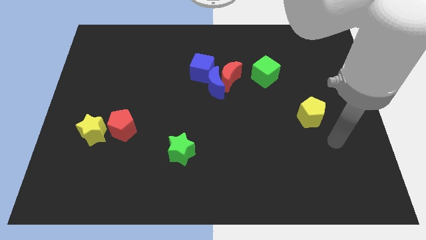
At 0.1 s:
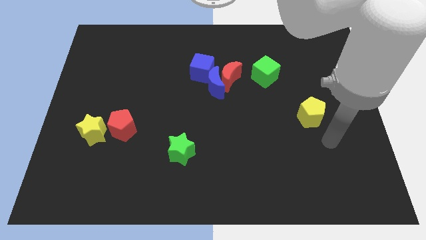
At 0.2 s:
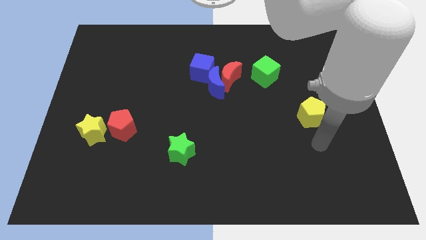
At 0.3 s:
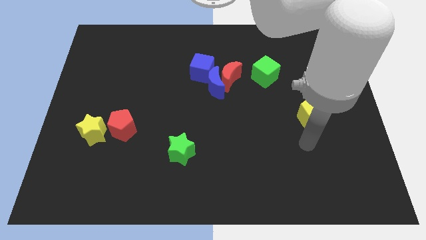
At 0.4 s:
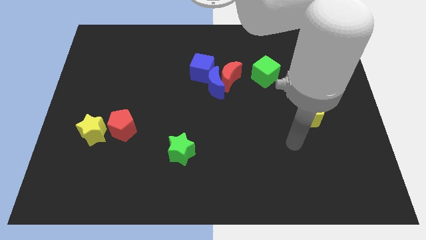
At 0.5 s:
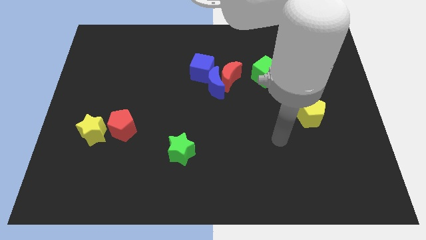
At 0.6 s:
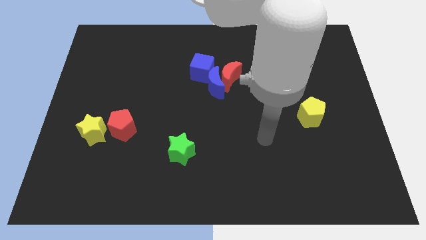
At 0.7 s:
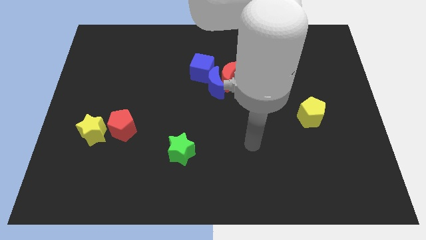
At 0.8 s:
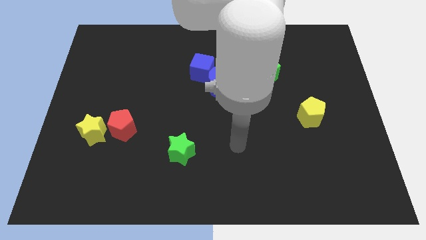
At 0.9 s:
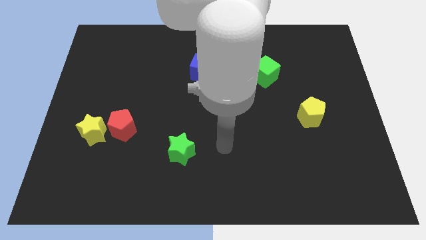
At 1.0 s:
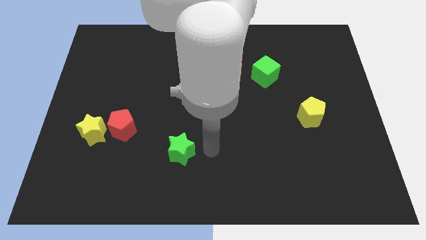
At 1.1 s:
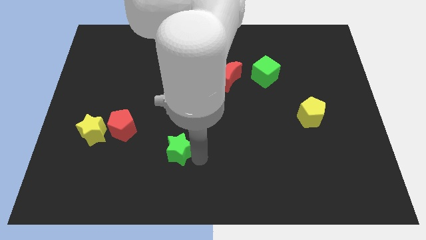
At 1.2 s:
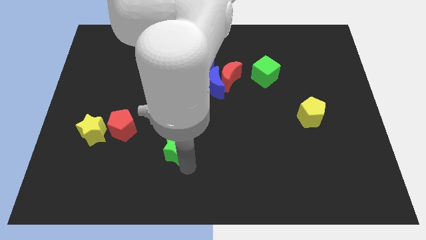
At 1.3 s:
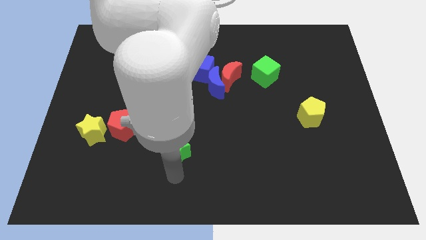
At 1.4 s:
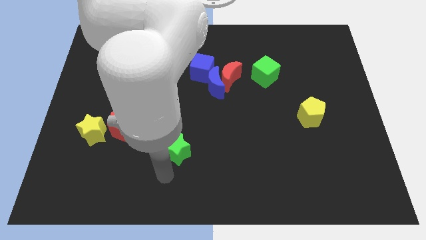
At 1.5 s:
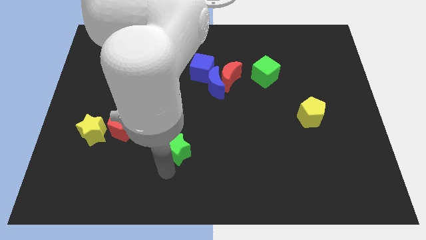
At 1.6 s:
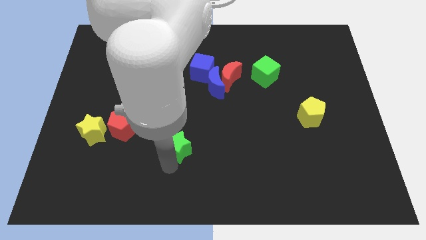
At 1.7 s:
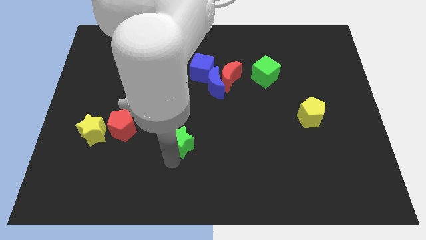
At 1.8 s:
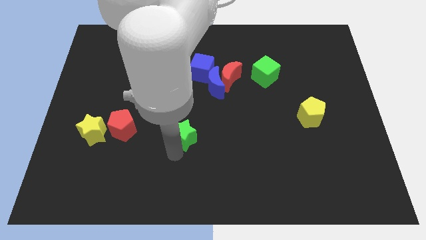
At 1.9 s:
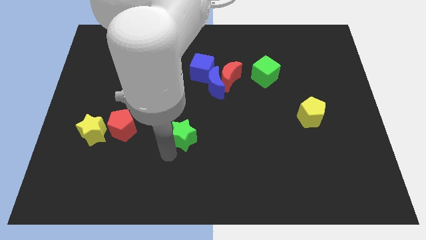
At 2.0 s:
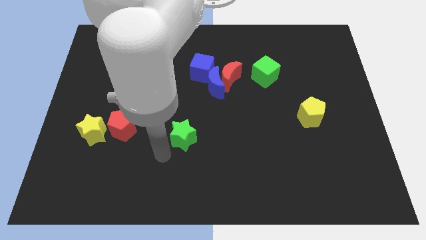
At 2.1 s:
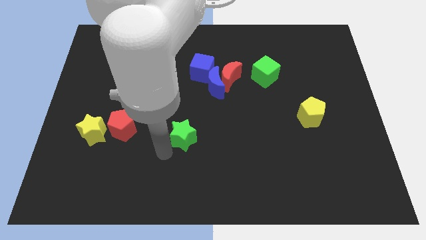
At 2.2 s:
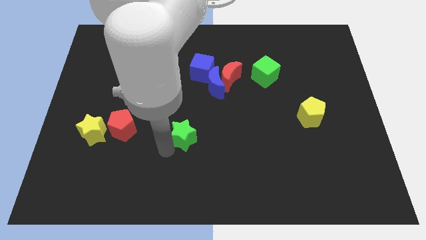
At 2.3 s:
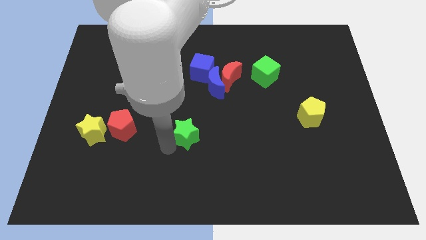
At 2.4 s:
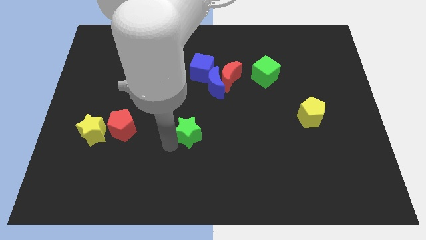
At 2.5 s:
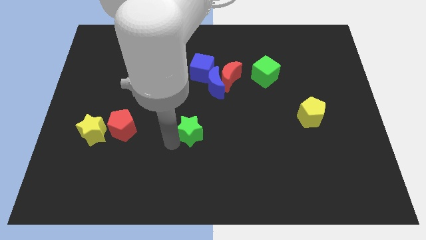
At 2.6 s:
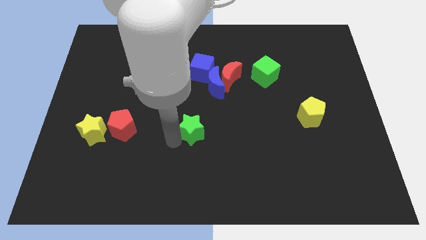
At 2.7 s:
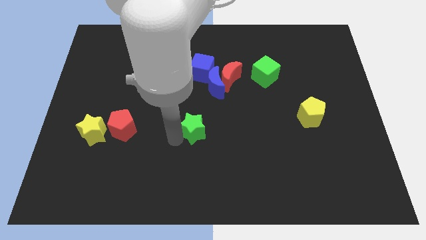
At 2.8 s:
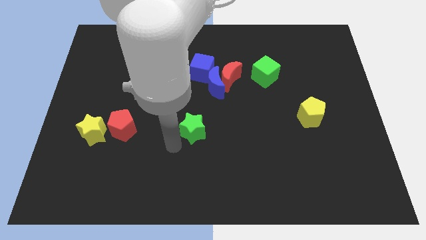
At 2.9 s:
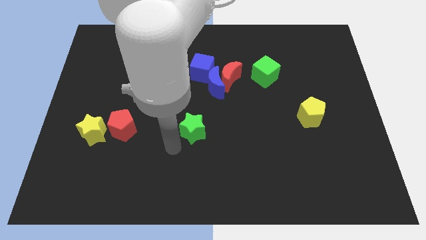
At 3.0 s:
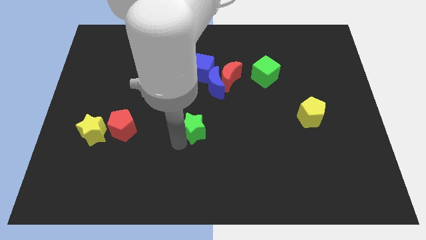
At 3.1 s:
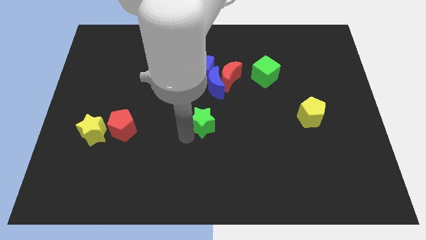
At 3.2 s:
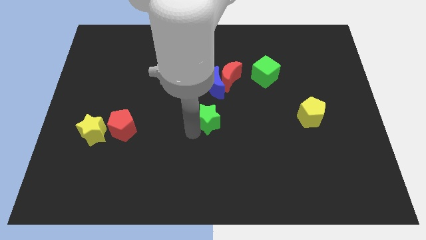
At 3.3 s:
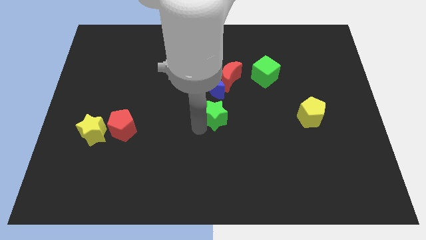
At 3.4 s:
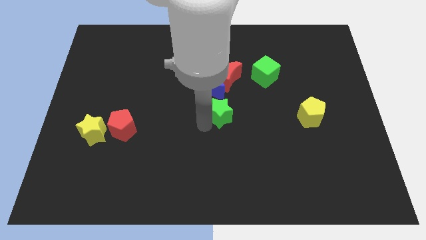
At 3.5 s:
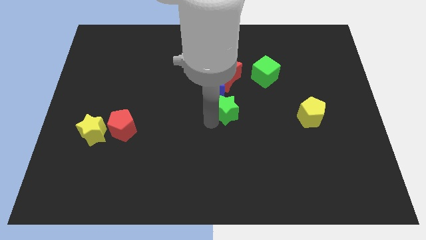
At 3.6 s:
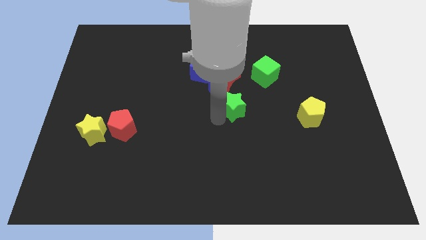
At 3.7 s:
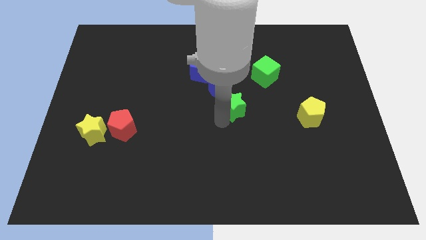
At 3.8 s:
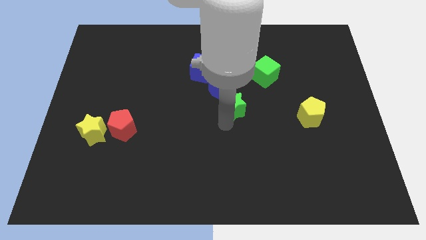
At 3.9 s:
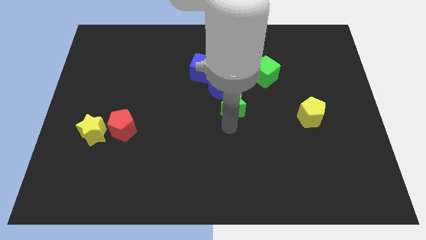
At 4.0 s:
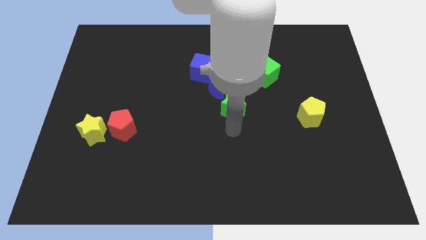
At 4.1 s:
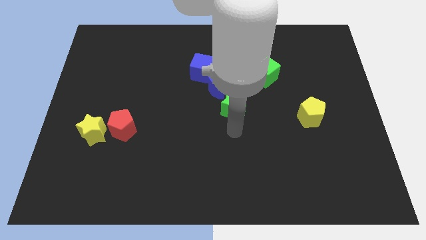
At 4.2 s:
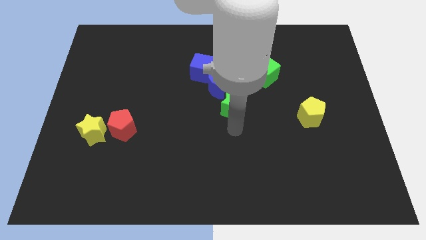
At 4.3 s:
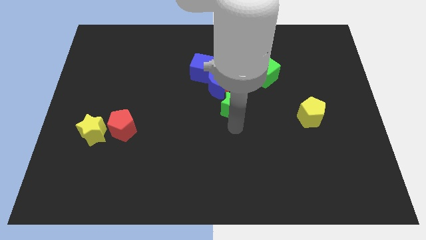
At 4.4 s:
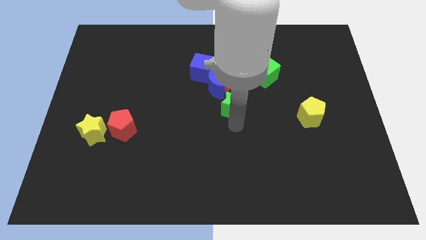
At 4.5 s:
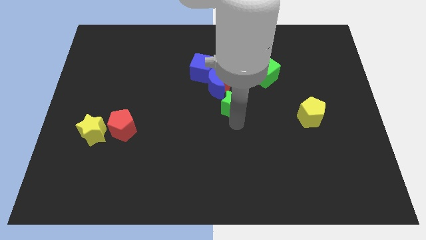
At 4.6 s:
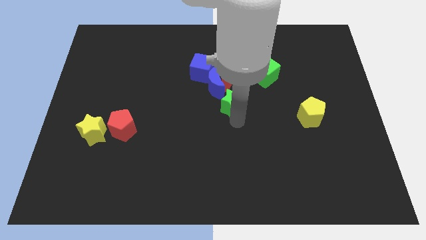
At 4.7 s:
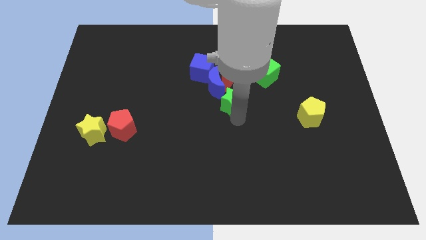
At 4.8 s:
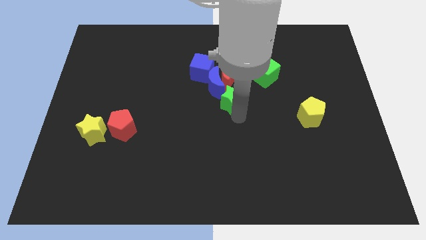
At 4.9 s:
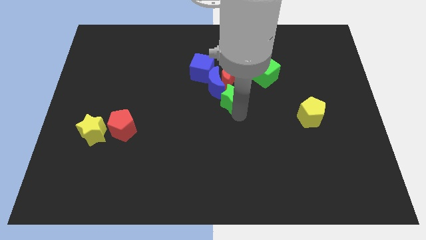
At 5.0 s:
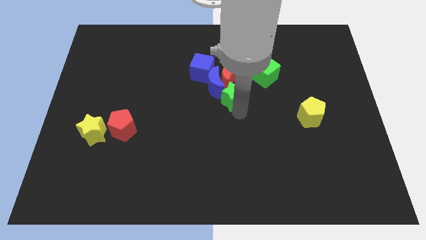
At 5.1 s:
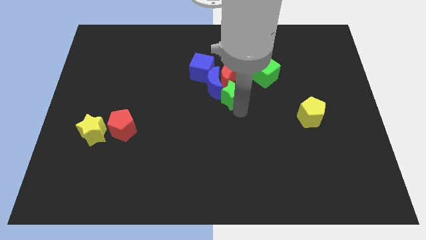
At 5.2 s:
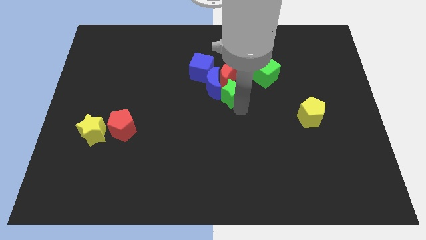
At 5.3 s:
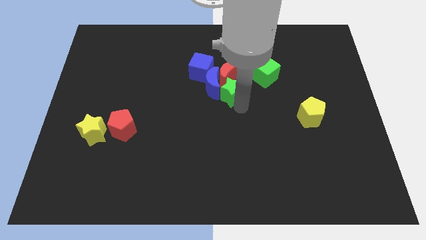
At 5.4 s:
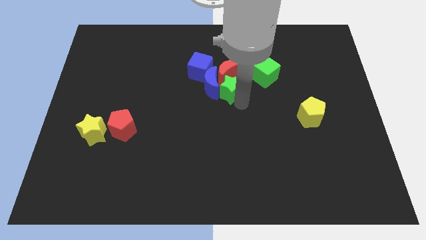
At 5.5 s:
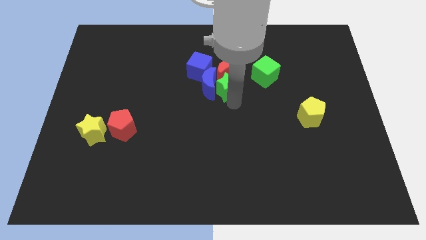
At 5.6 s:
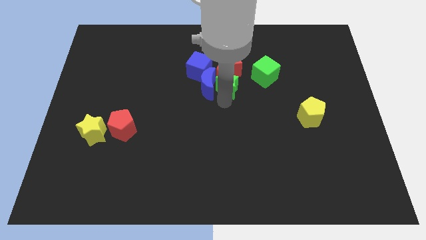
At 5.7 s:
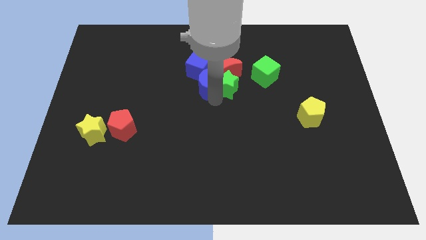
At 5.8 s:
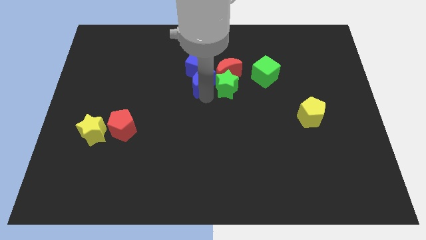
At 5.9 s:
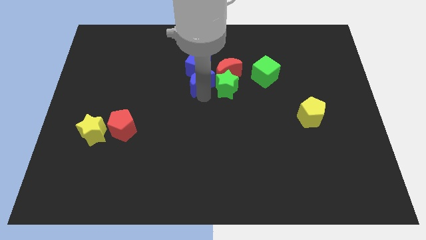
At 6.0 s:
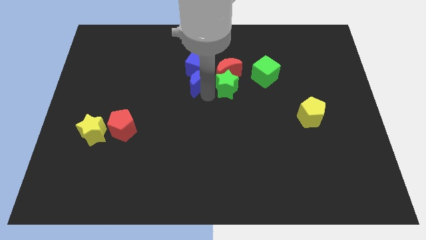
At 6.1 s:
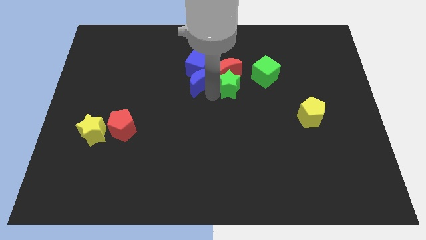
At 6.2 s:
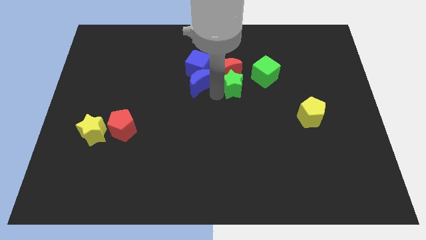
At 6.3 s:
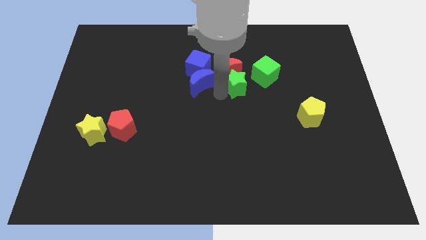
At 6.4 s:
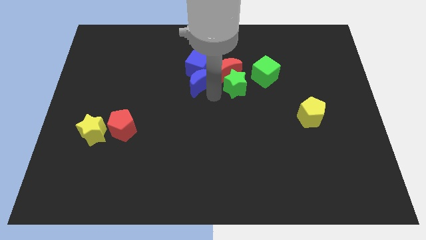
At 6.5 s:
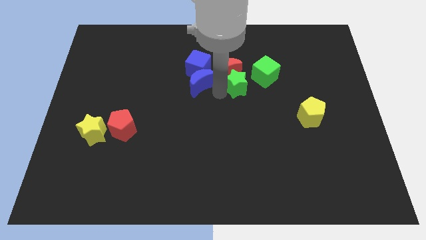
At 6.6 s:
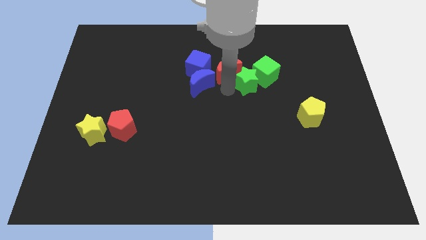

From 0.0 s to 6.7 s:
move the green star close to the green cube
